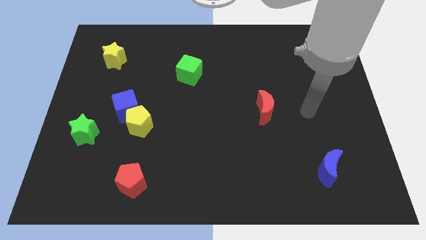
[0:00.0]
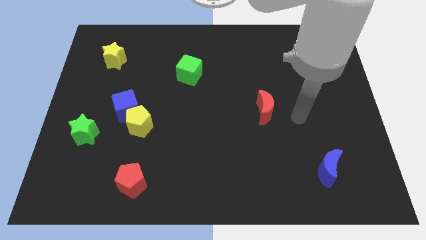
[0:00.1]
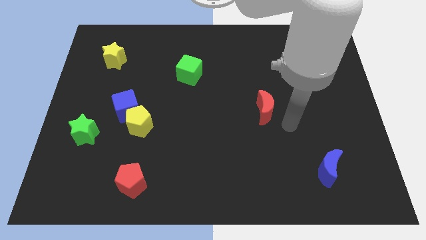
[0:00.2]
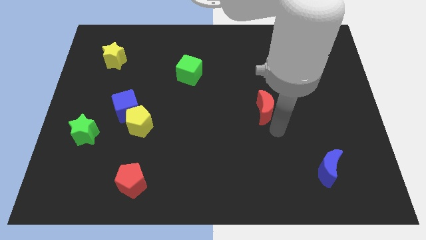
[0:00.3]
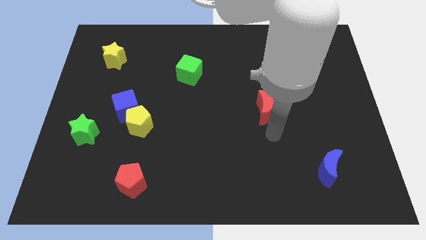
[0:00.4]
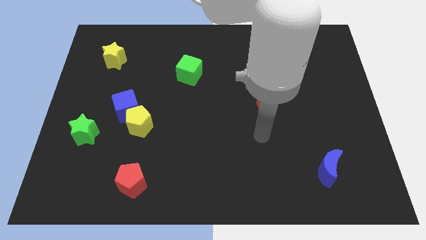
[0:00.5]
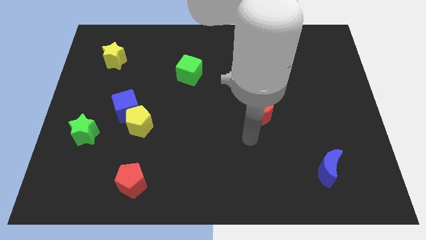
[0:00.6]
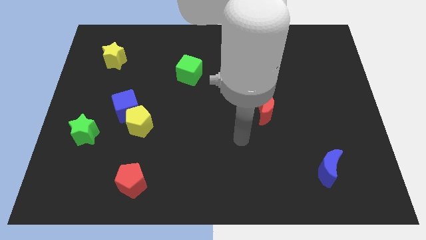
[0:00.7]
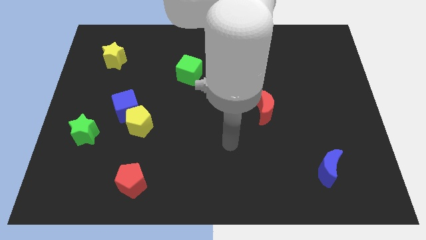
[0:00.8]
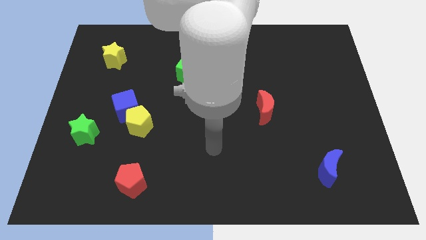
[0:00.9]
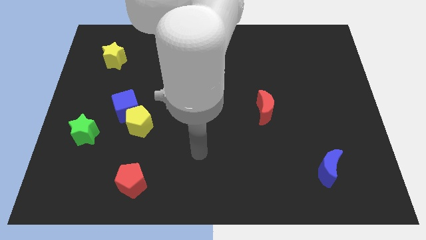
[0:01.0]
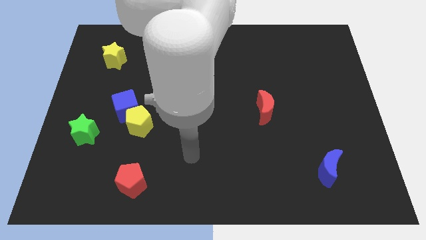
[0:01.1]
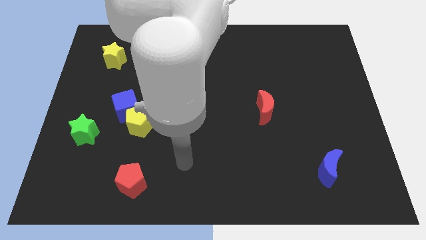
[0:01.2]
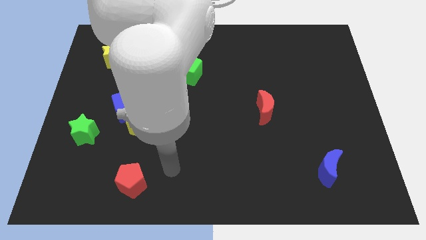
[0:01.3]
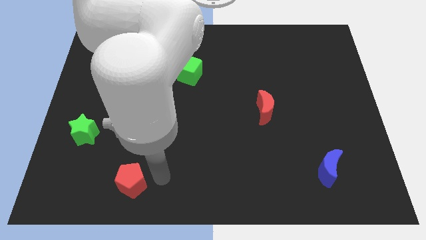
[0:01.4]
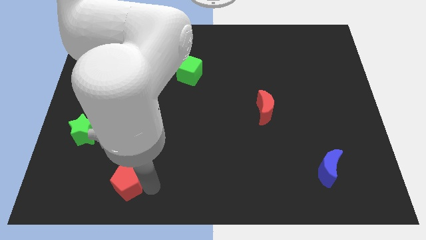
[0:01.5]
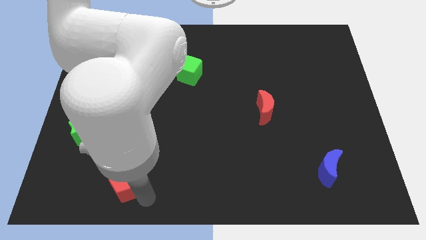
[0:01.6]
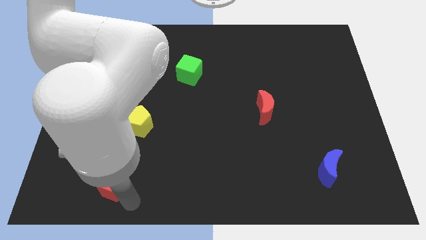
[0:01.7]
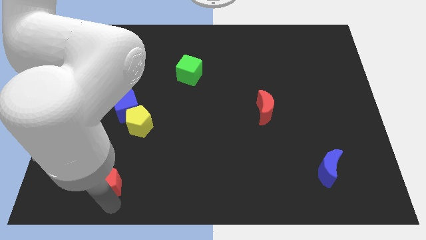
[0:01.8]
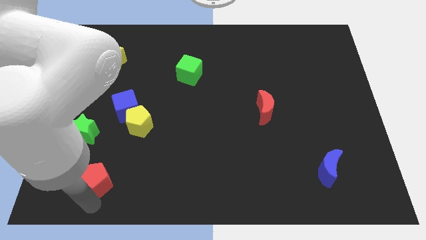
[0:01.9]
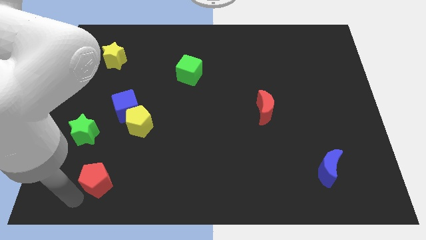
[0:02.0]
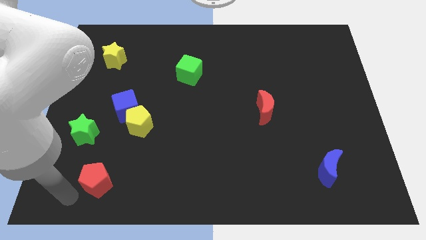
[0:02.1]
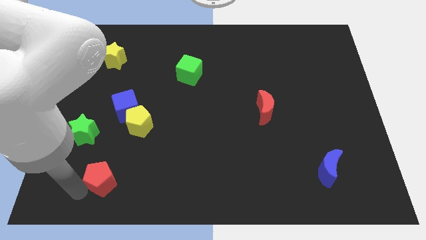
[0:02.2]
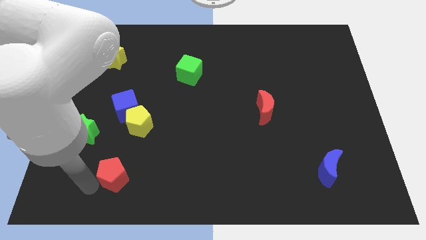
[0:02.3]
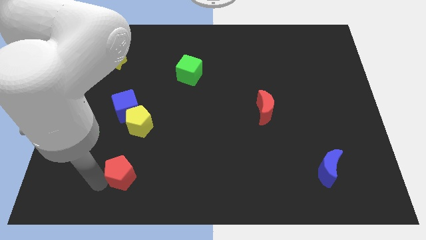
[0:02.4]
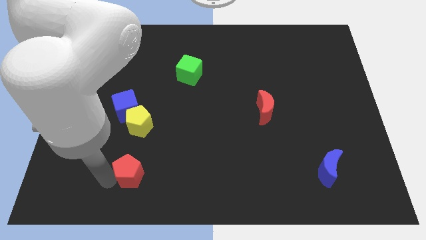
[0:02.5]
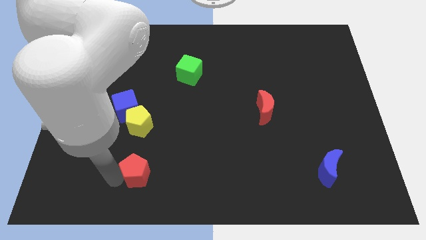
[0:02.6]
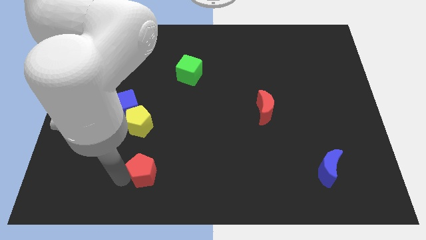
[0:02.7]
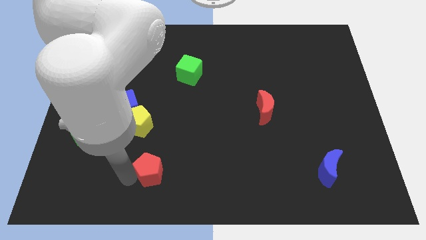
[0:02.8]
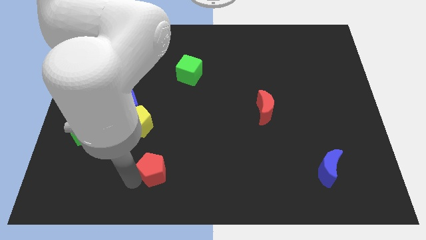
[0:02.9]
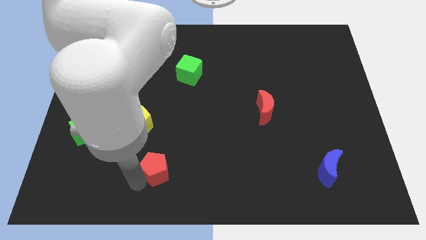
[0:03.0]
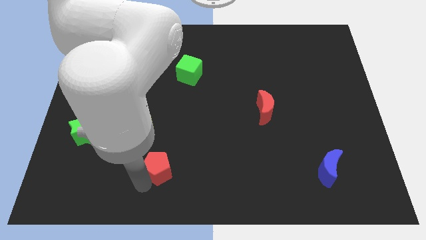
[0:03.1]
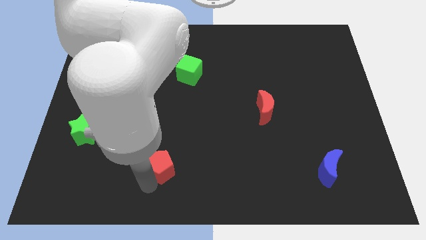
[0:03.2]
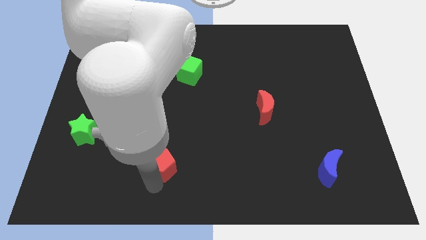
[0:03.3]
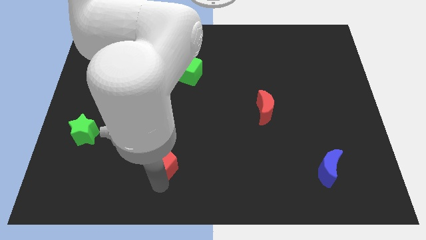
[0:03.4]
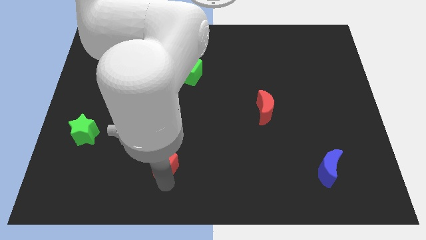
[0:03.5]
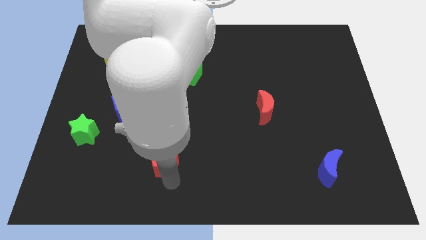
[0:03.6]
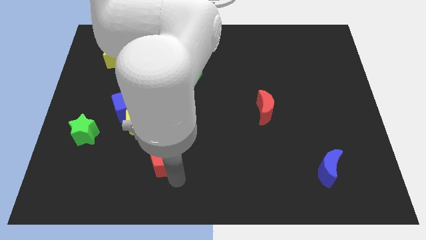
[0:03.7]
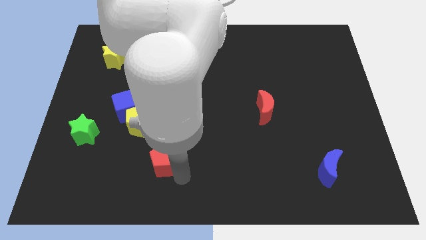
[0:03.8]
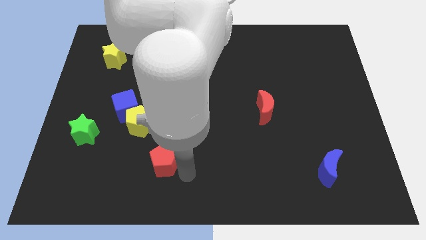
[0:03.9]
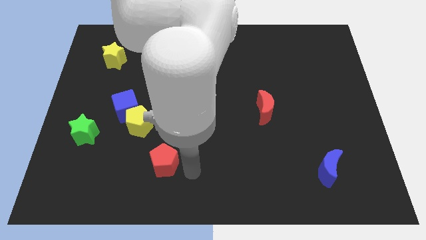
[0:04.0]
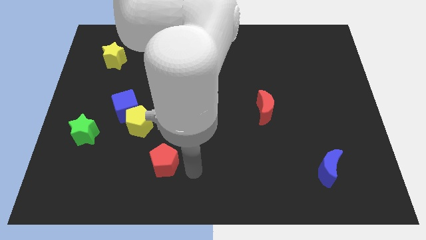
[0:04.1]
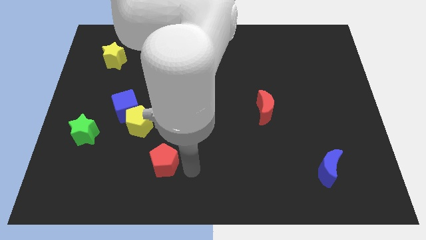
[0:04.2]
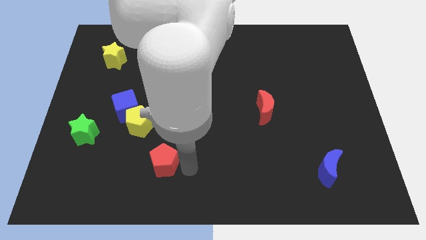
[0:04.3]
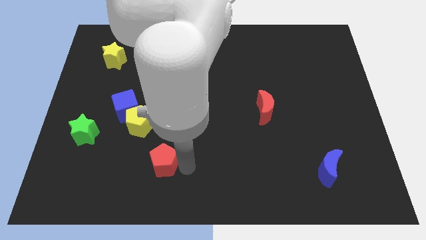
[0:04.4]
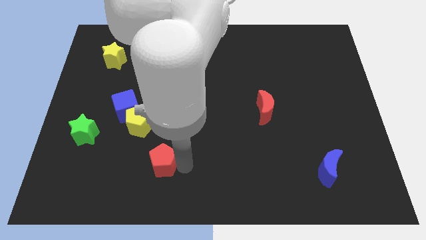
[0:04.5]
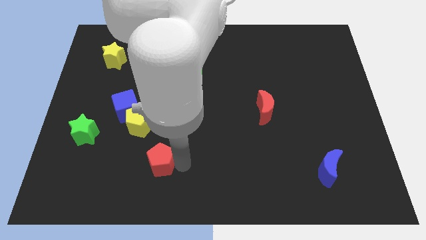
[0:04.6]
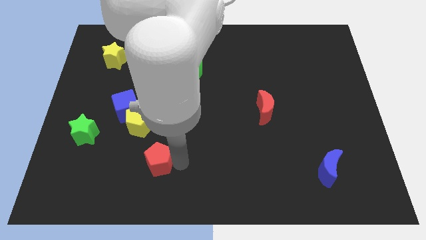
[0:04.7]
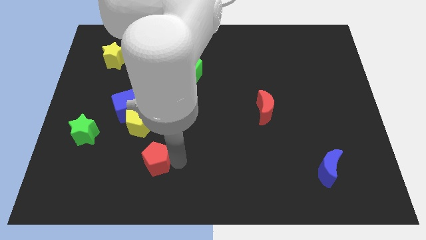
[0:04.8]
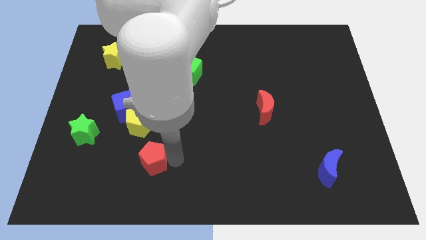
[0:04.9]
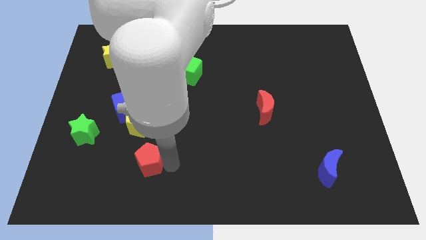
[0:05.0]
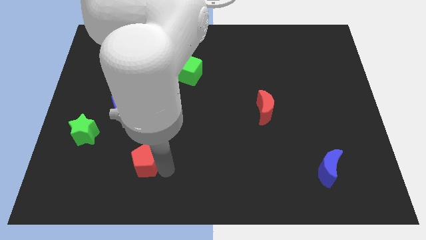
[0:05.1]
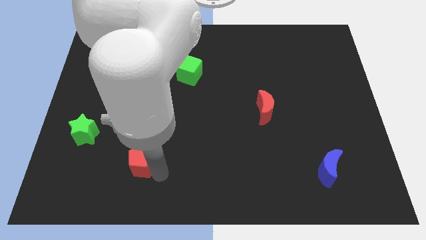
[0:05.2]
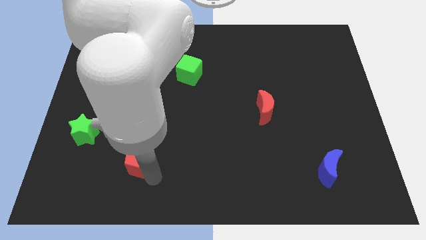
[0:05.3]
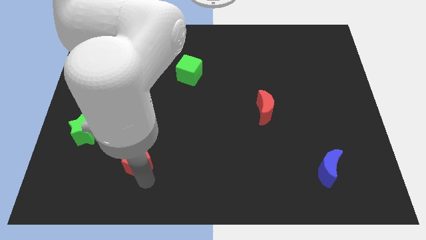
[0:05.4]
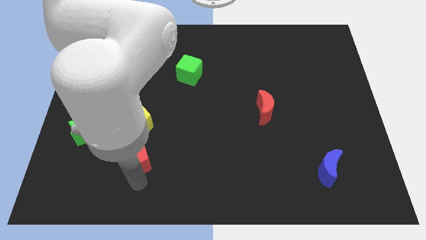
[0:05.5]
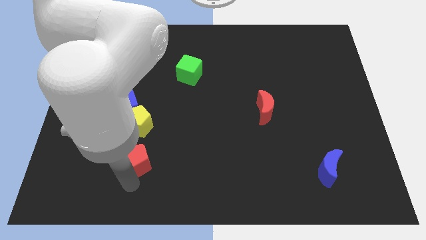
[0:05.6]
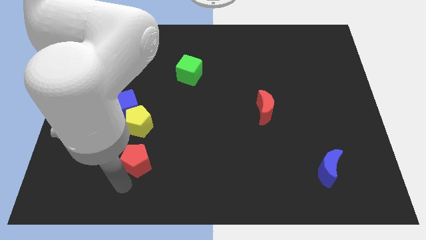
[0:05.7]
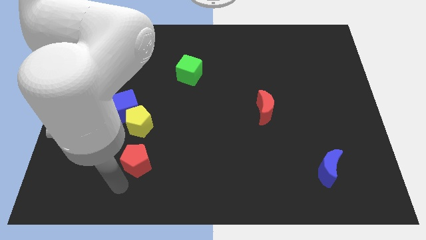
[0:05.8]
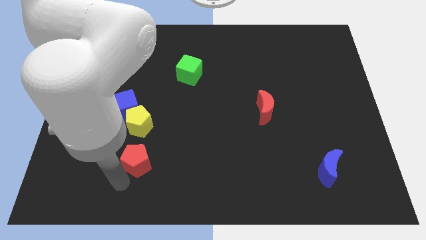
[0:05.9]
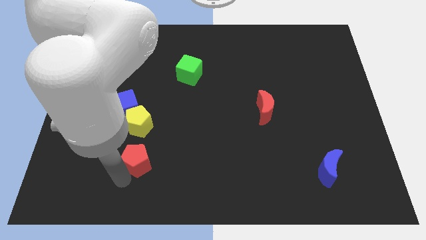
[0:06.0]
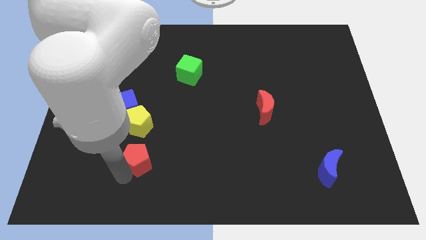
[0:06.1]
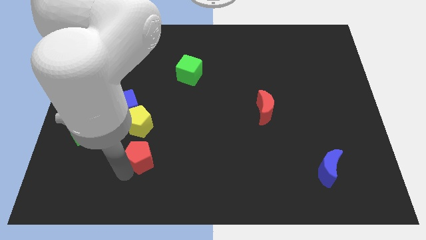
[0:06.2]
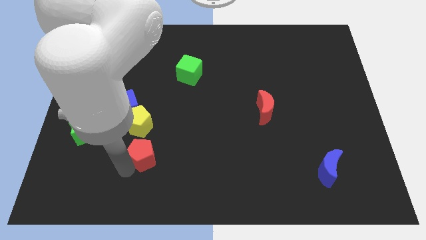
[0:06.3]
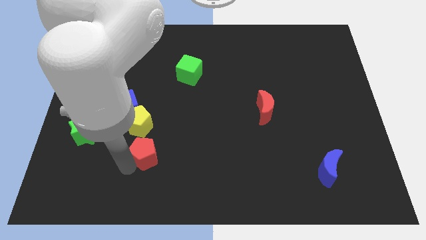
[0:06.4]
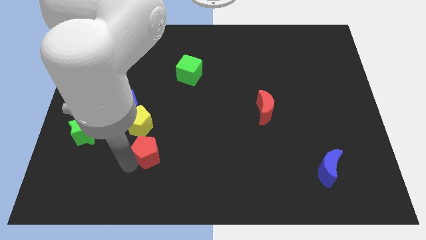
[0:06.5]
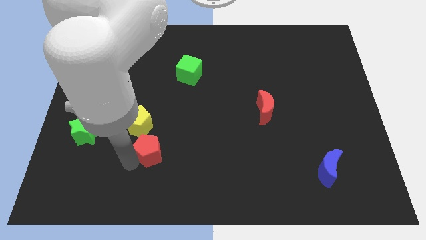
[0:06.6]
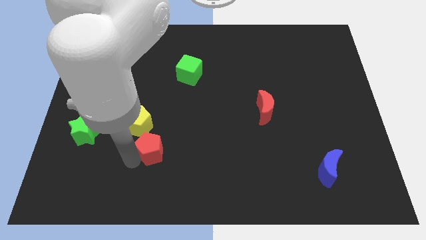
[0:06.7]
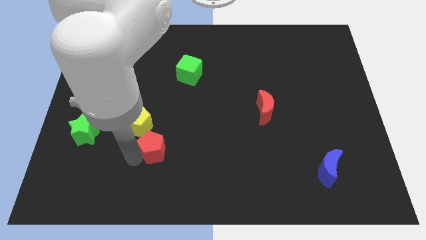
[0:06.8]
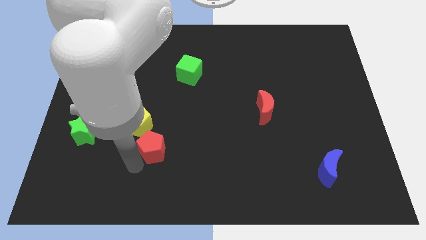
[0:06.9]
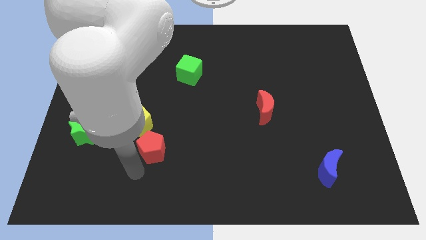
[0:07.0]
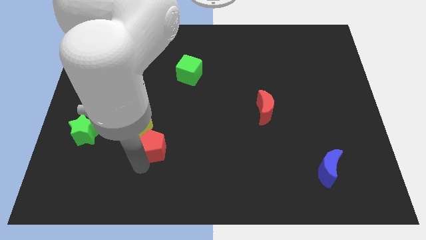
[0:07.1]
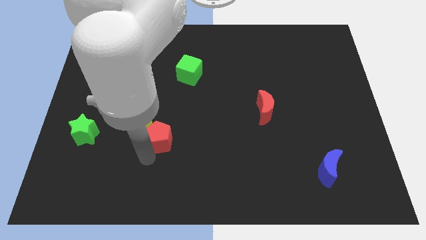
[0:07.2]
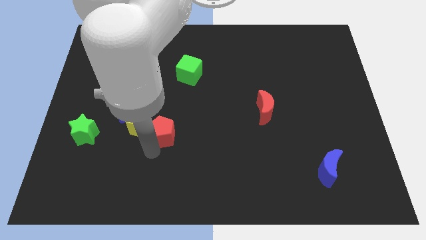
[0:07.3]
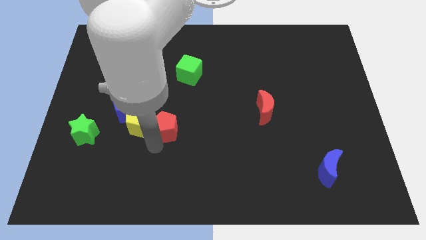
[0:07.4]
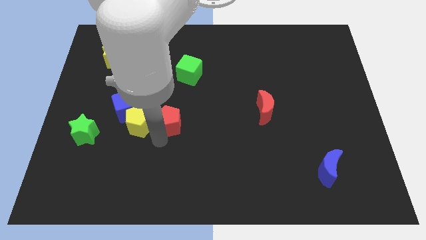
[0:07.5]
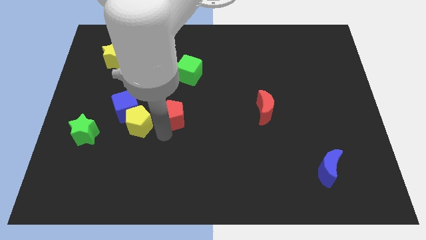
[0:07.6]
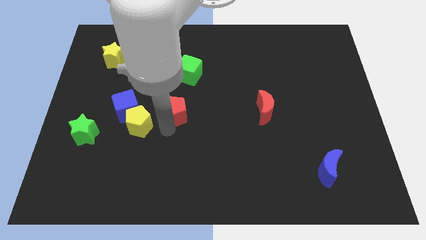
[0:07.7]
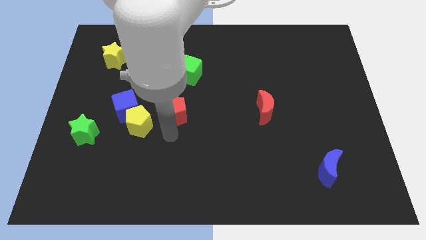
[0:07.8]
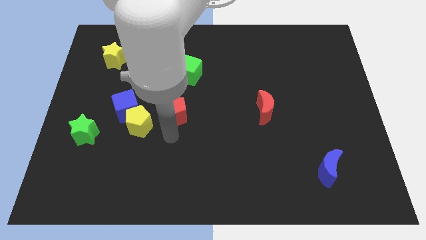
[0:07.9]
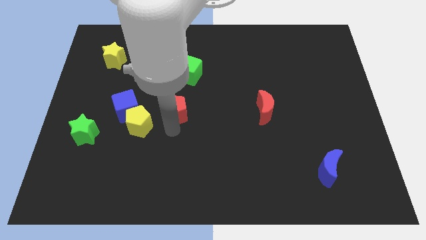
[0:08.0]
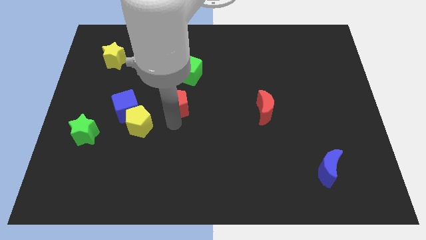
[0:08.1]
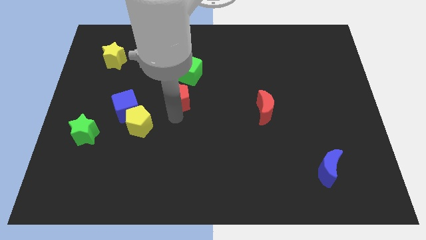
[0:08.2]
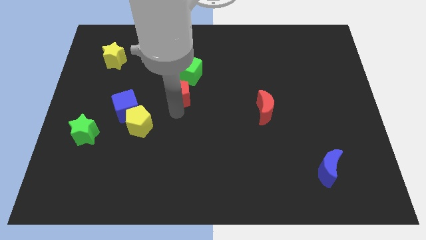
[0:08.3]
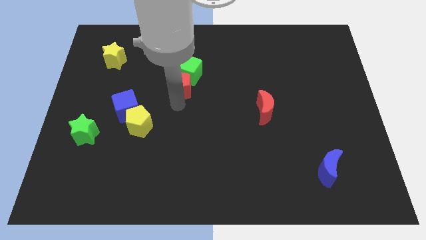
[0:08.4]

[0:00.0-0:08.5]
put the red pentagon next to the green cube
